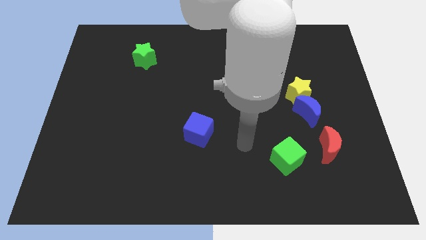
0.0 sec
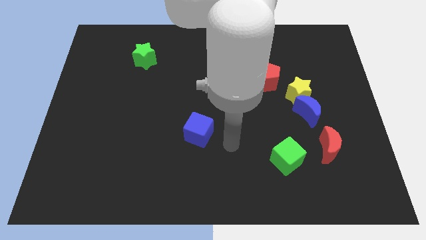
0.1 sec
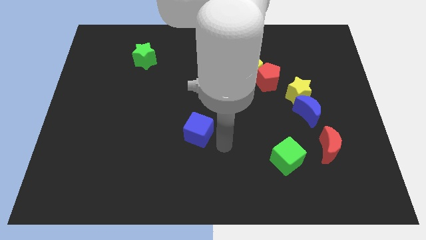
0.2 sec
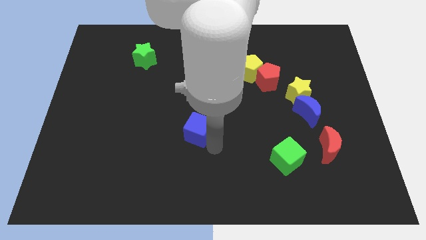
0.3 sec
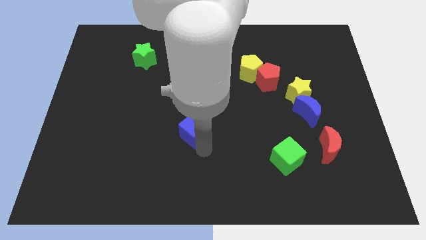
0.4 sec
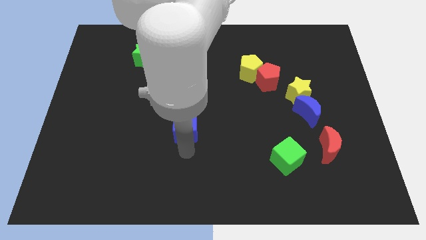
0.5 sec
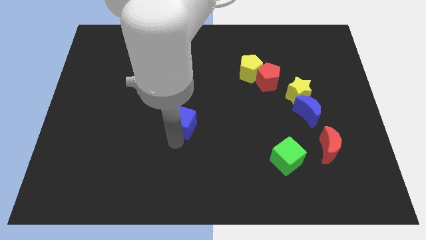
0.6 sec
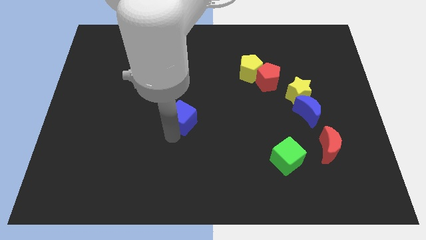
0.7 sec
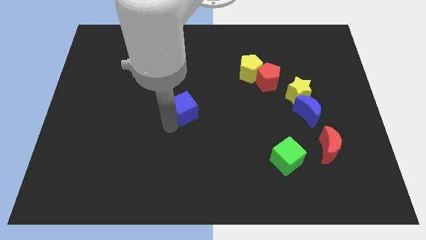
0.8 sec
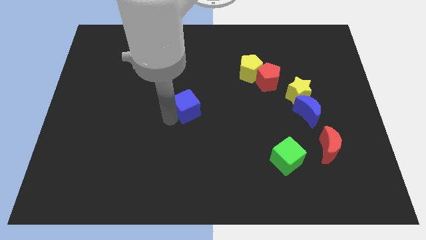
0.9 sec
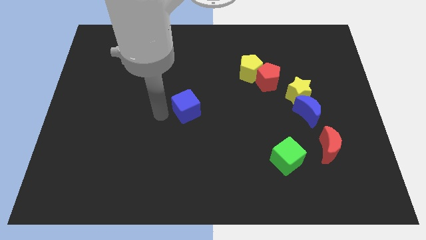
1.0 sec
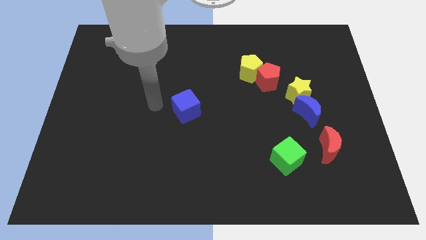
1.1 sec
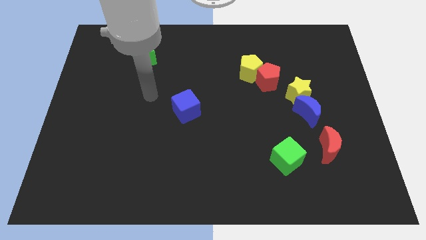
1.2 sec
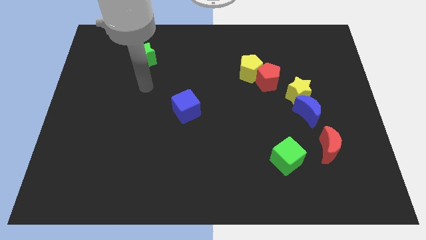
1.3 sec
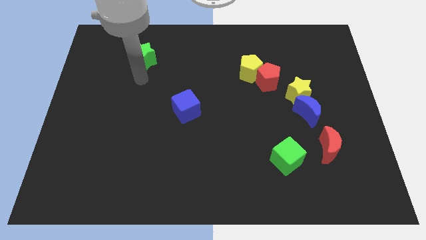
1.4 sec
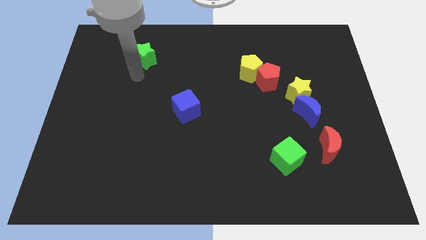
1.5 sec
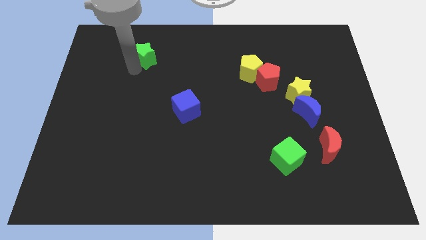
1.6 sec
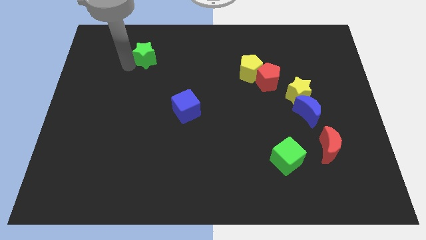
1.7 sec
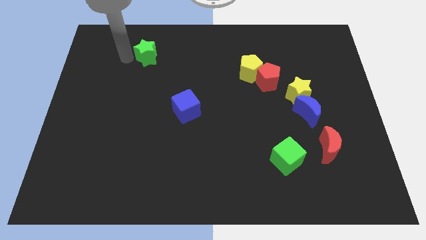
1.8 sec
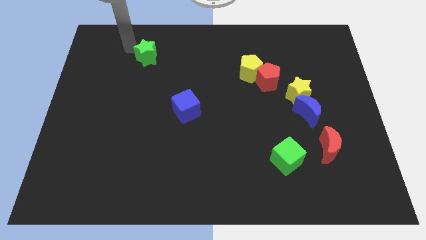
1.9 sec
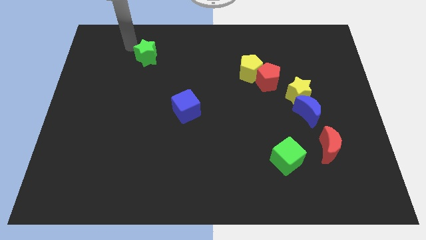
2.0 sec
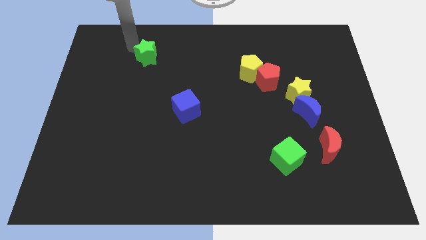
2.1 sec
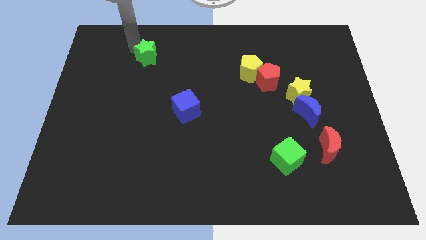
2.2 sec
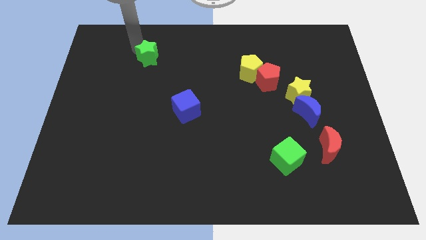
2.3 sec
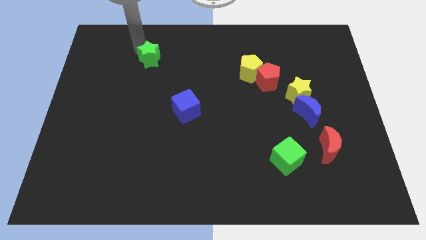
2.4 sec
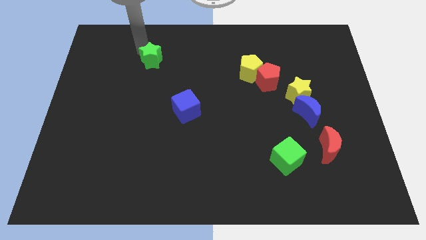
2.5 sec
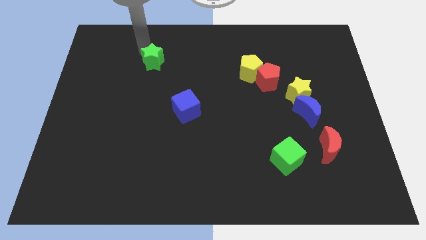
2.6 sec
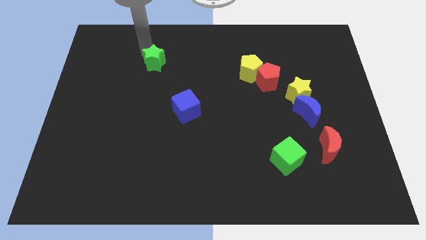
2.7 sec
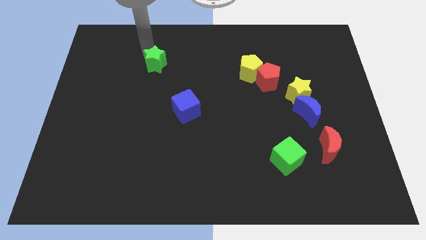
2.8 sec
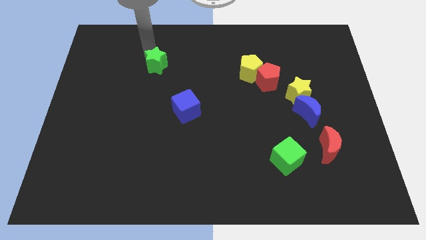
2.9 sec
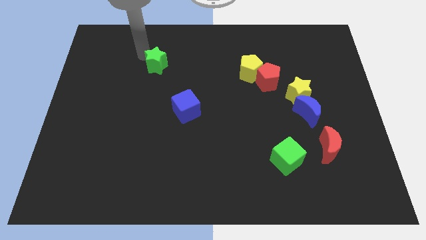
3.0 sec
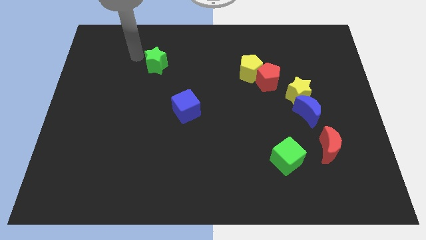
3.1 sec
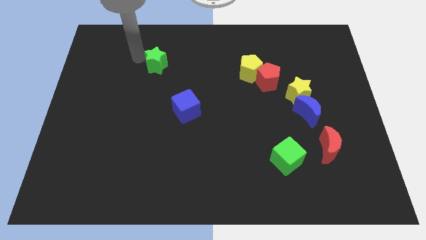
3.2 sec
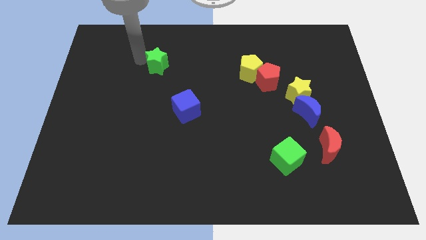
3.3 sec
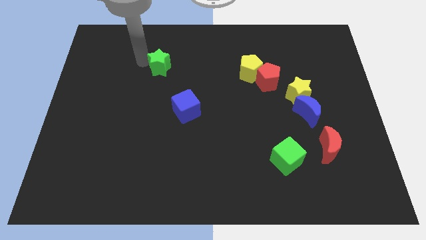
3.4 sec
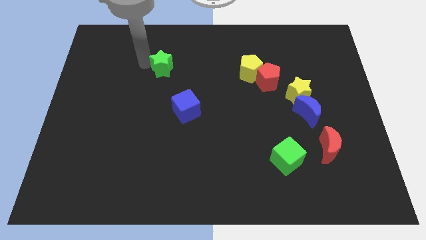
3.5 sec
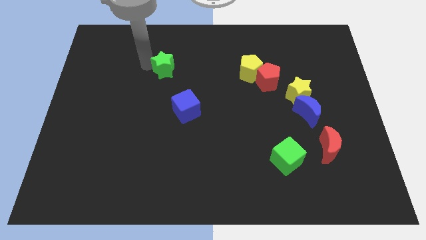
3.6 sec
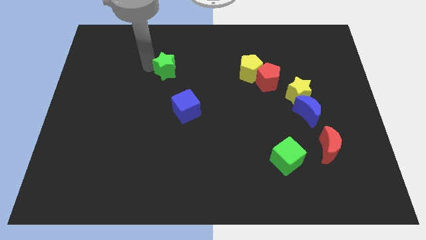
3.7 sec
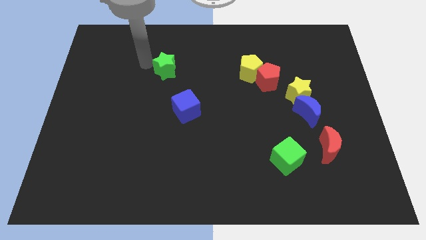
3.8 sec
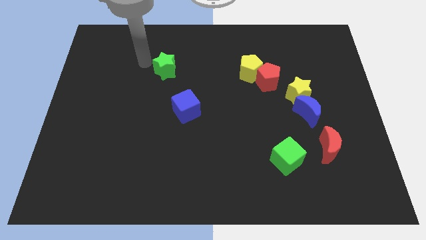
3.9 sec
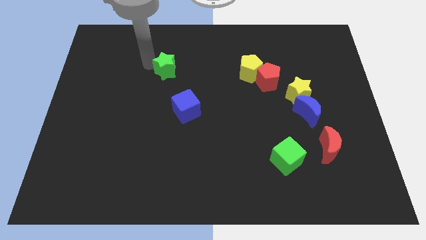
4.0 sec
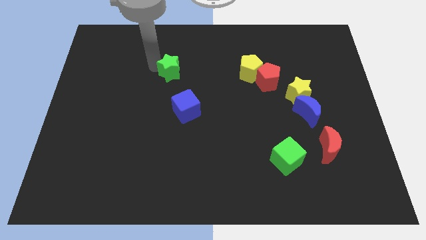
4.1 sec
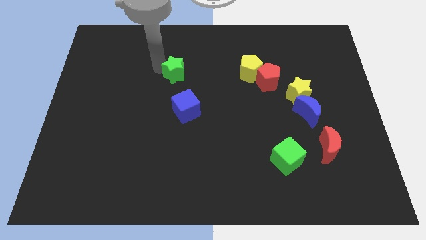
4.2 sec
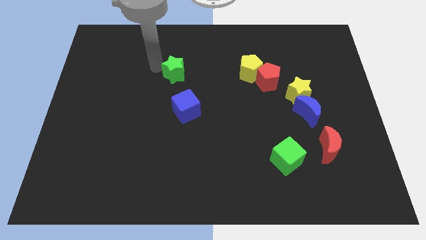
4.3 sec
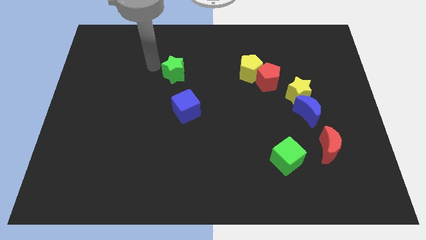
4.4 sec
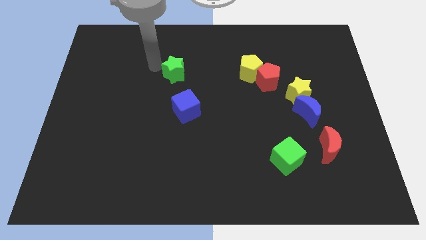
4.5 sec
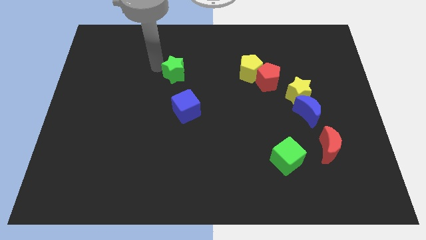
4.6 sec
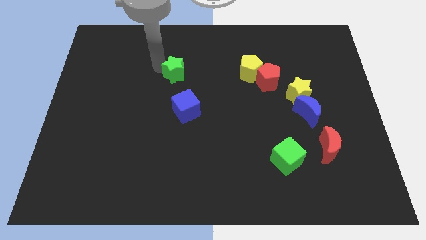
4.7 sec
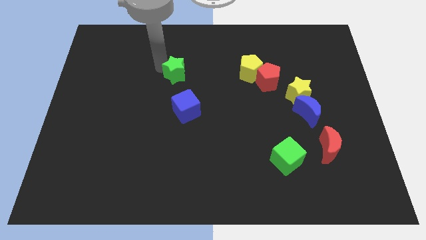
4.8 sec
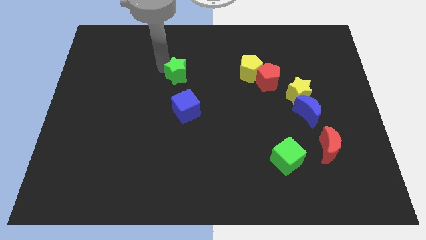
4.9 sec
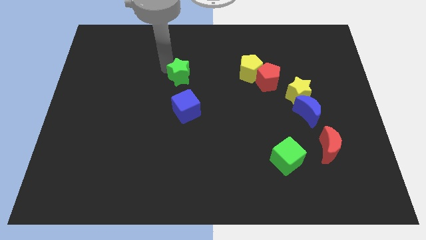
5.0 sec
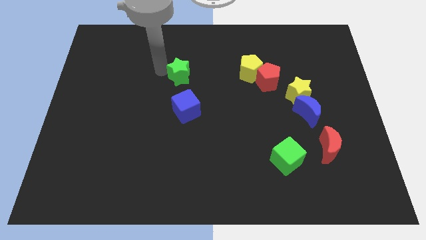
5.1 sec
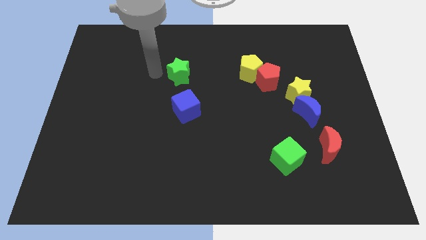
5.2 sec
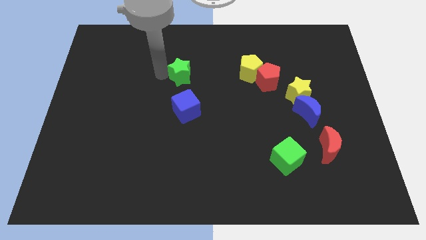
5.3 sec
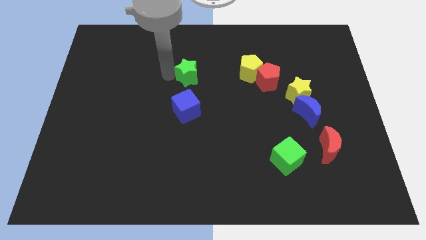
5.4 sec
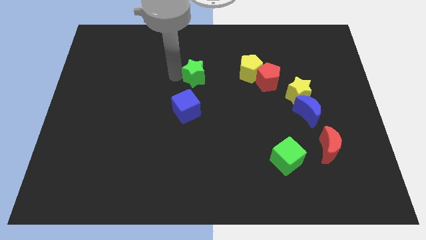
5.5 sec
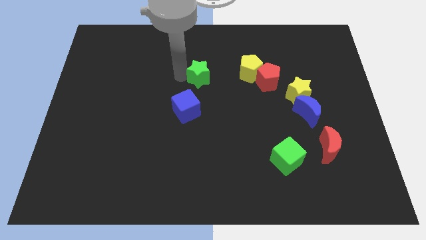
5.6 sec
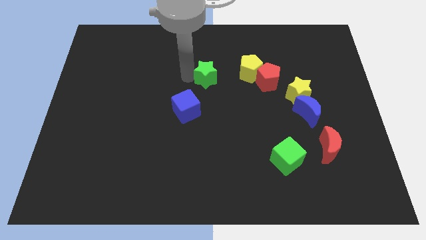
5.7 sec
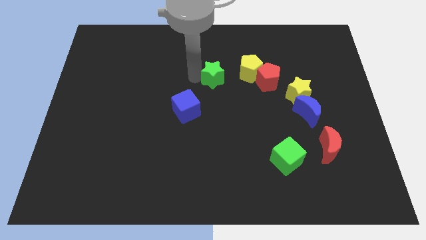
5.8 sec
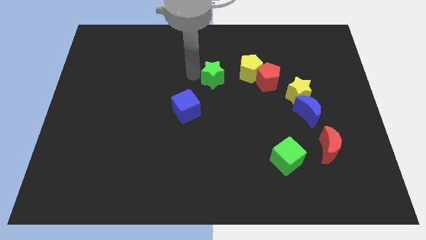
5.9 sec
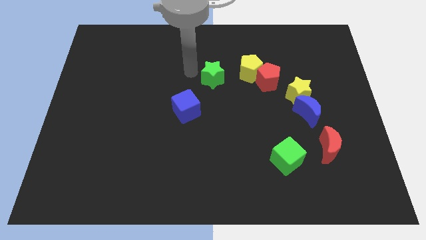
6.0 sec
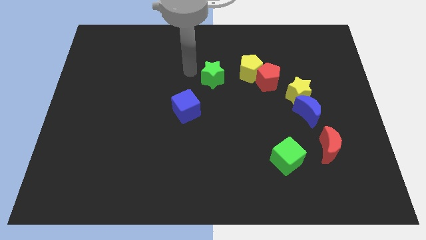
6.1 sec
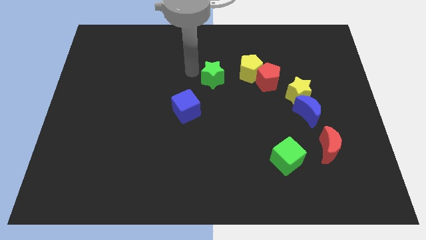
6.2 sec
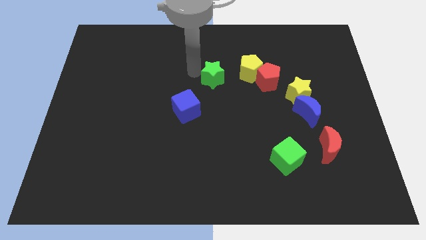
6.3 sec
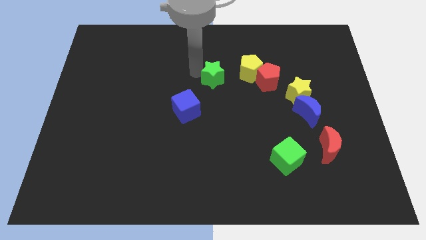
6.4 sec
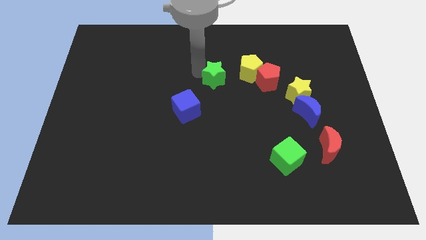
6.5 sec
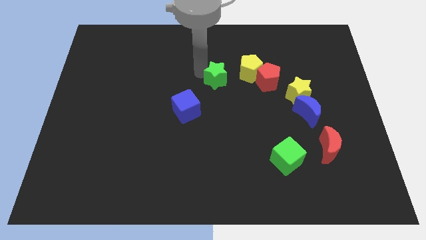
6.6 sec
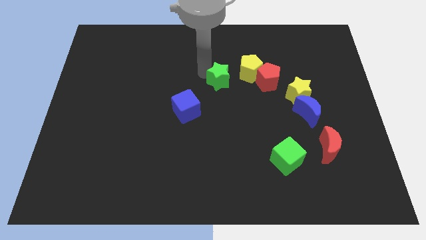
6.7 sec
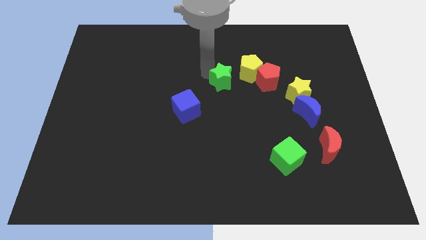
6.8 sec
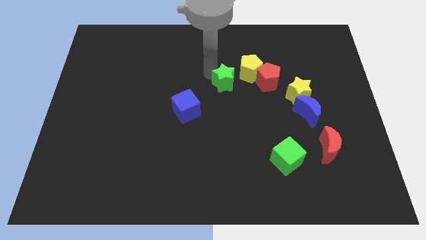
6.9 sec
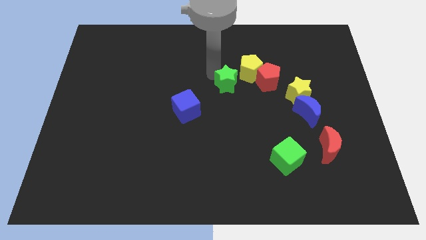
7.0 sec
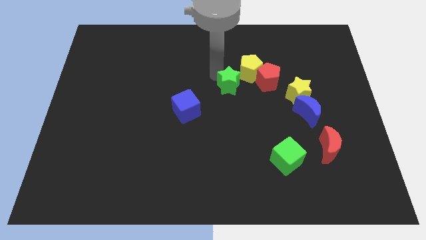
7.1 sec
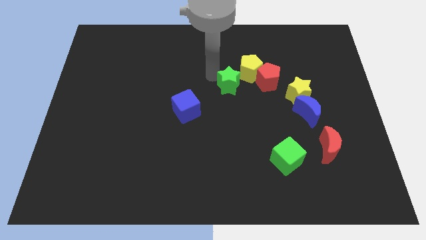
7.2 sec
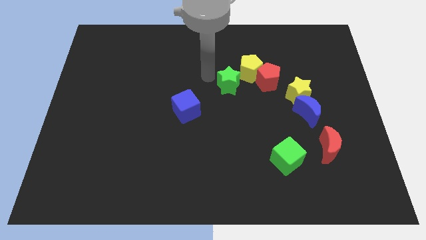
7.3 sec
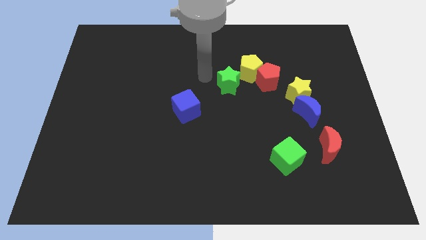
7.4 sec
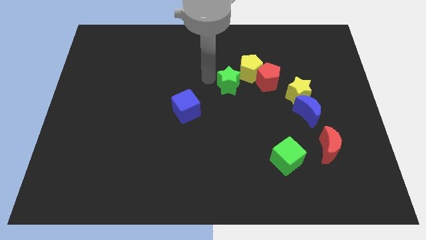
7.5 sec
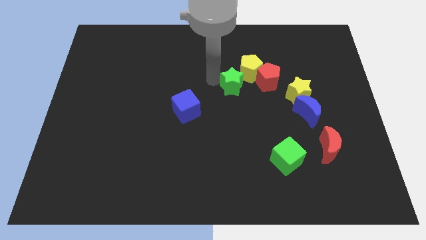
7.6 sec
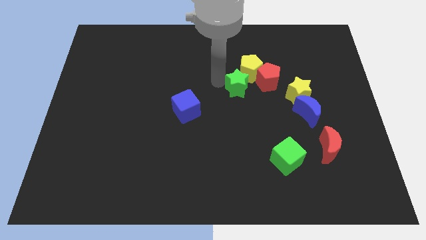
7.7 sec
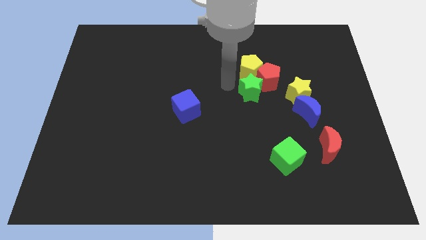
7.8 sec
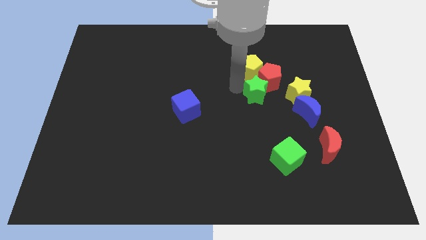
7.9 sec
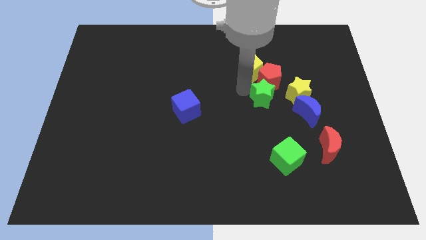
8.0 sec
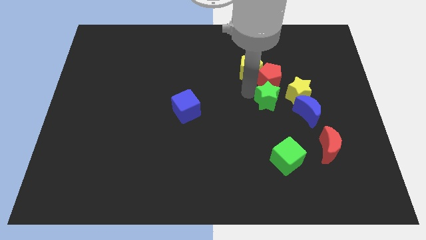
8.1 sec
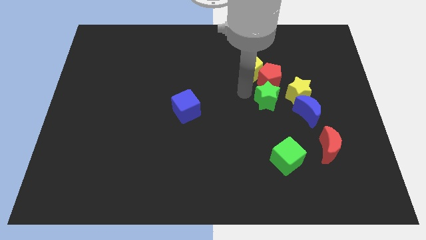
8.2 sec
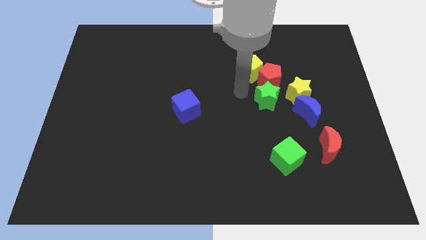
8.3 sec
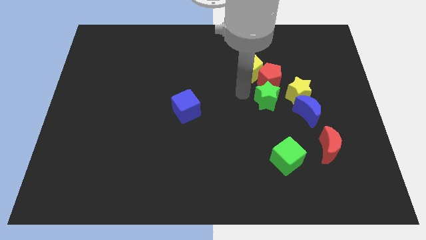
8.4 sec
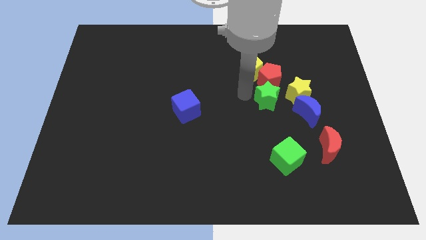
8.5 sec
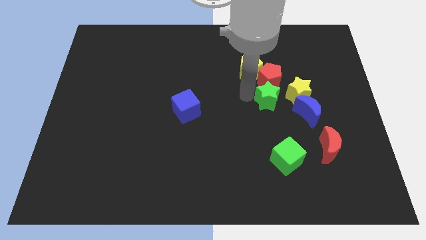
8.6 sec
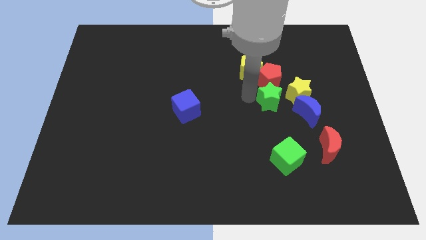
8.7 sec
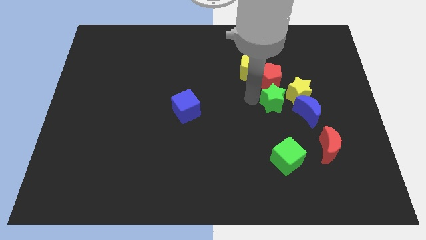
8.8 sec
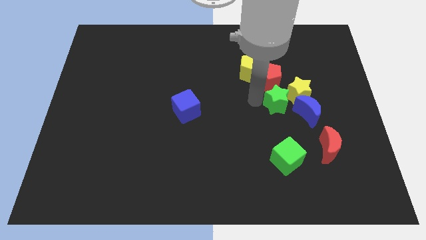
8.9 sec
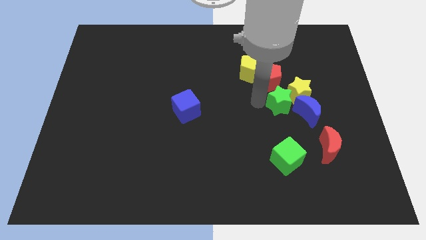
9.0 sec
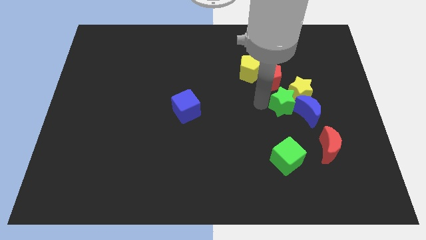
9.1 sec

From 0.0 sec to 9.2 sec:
move the green star towards the blue moon
